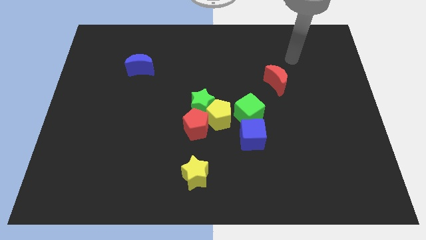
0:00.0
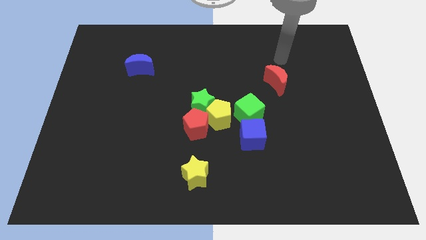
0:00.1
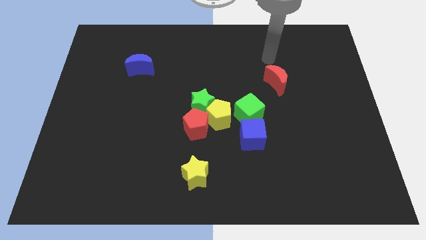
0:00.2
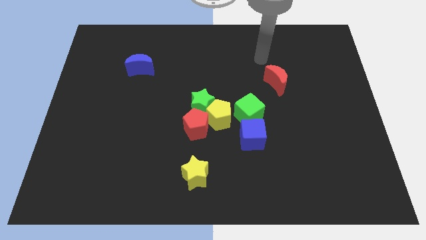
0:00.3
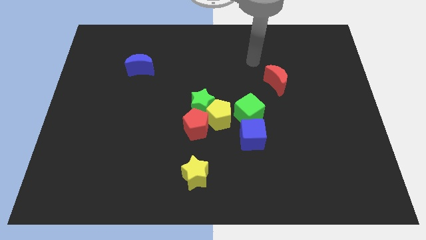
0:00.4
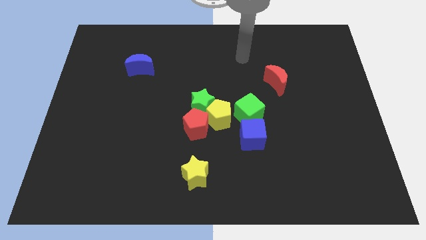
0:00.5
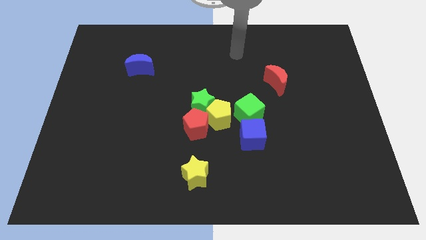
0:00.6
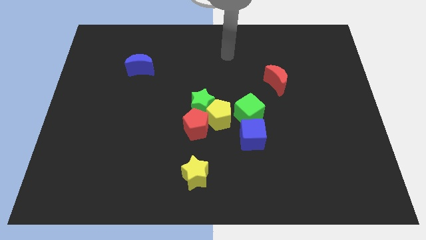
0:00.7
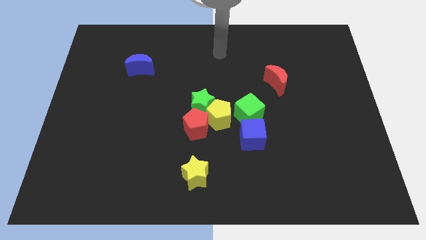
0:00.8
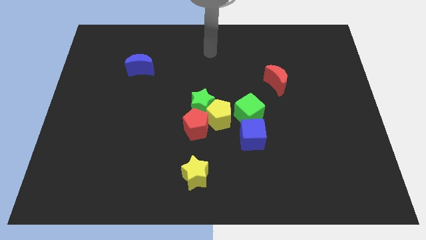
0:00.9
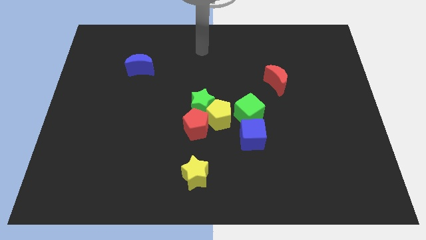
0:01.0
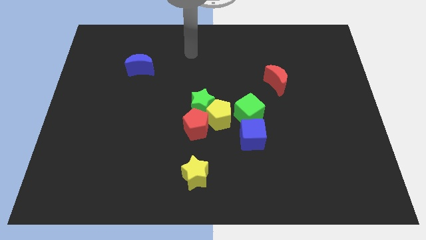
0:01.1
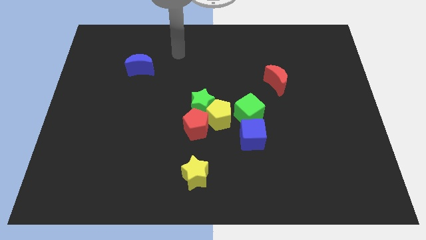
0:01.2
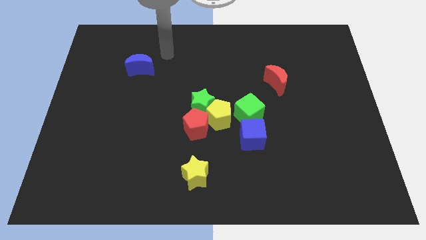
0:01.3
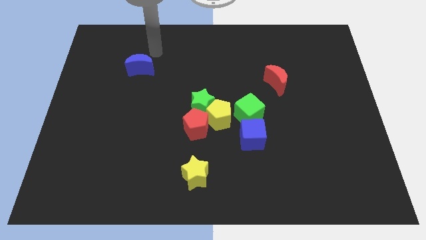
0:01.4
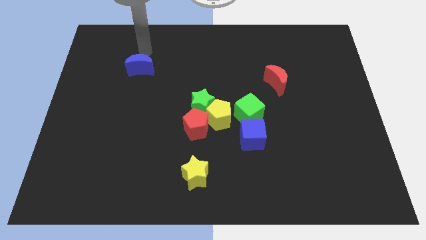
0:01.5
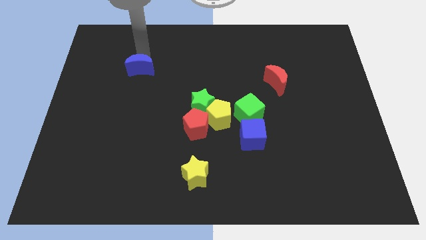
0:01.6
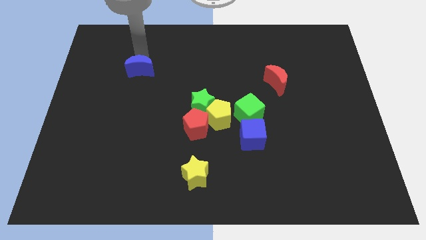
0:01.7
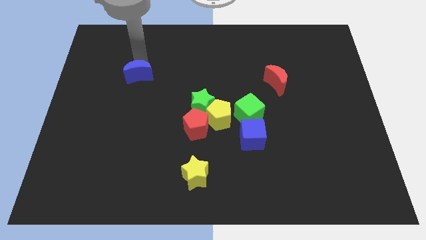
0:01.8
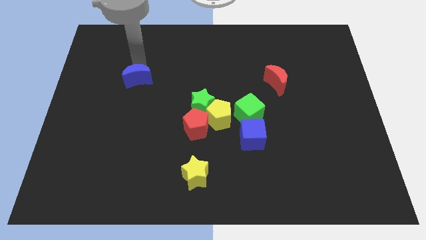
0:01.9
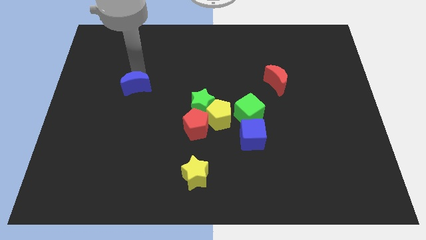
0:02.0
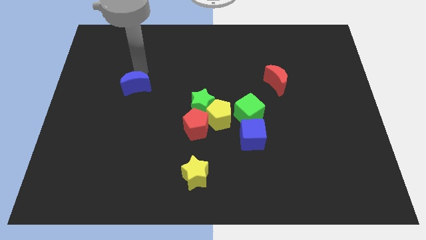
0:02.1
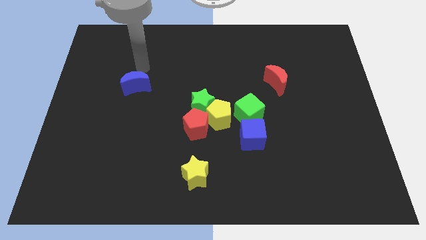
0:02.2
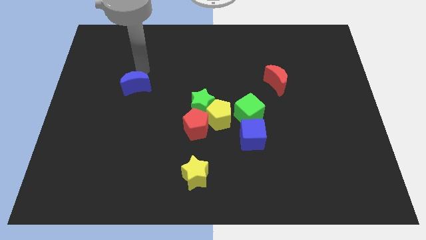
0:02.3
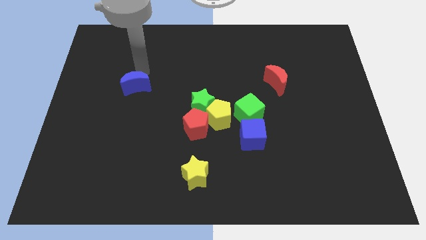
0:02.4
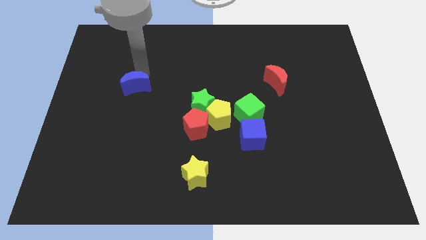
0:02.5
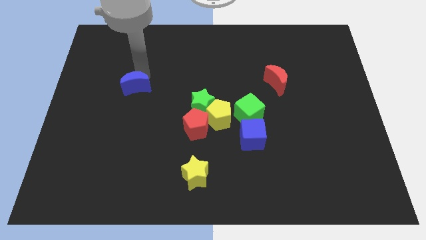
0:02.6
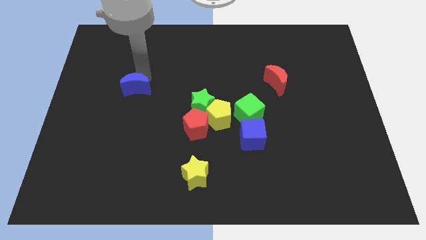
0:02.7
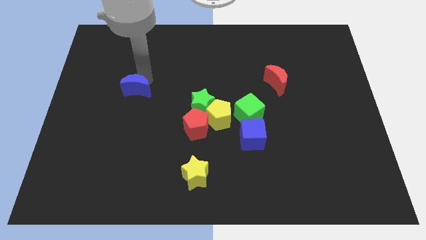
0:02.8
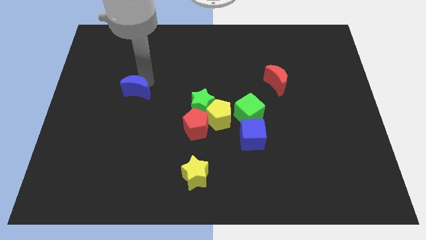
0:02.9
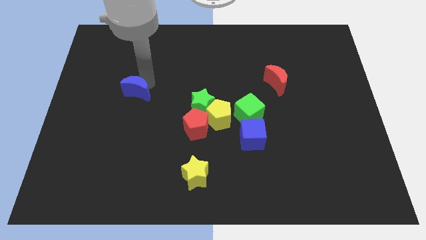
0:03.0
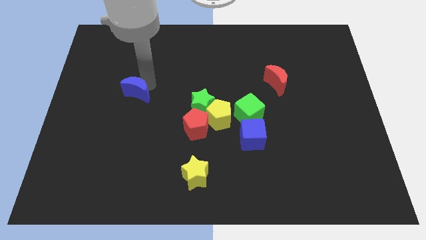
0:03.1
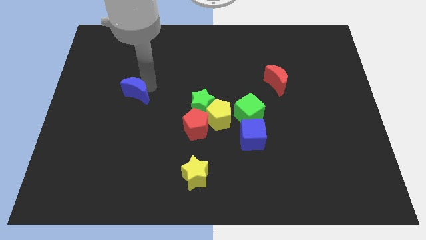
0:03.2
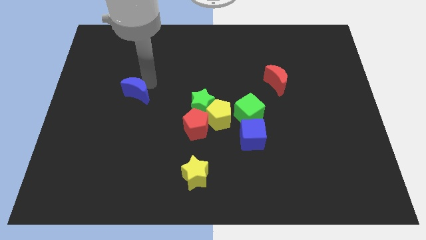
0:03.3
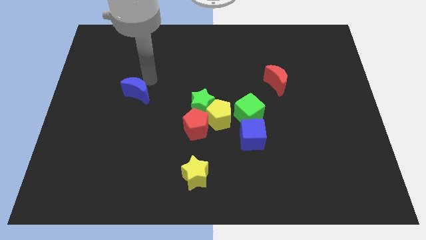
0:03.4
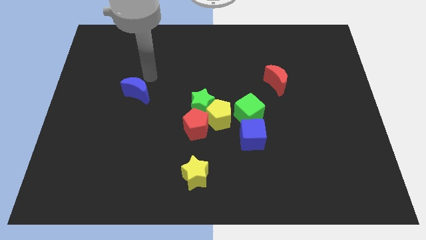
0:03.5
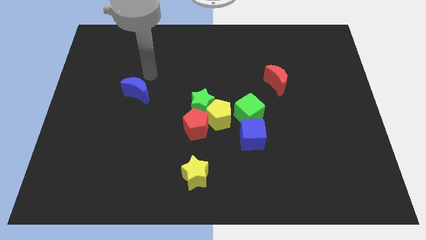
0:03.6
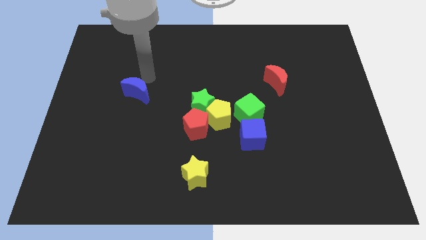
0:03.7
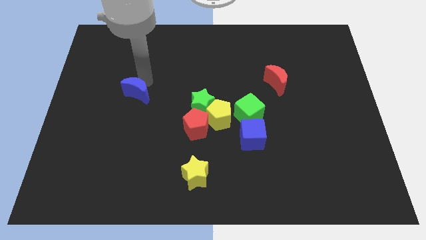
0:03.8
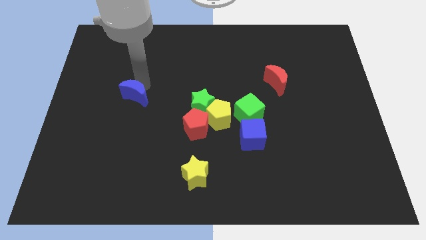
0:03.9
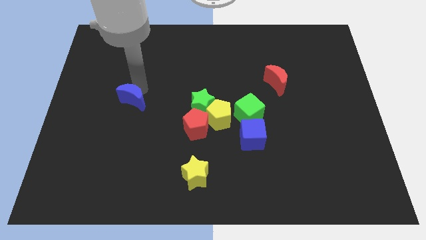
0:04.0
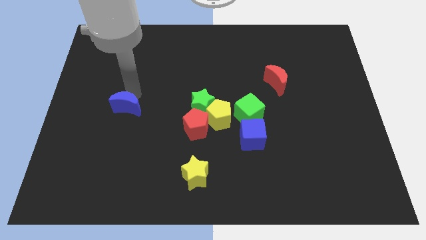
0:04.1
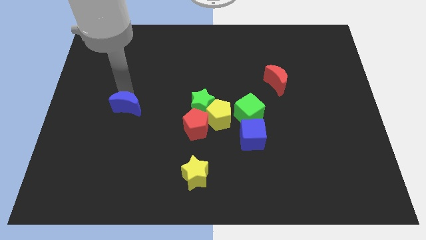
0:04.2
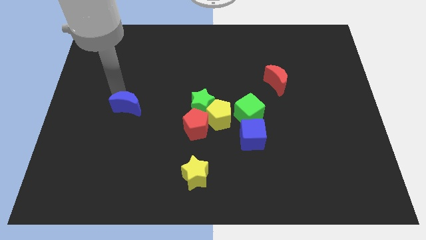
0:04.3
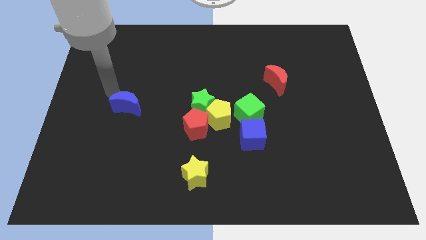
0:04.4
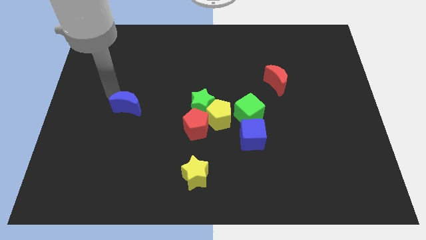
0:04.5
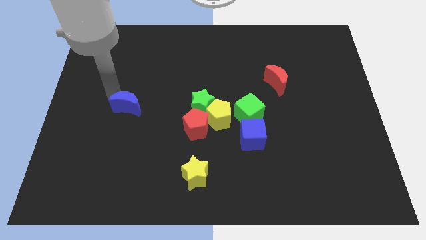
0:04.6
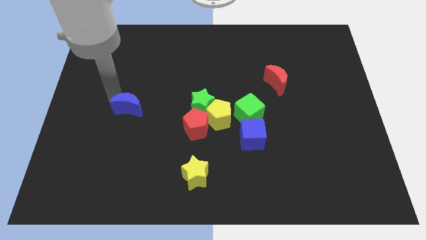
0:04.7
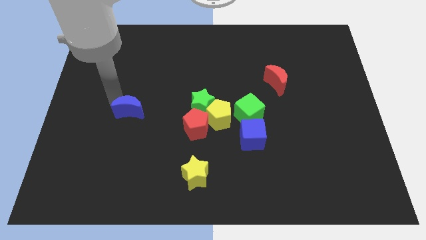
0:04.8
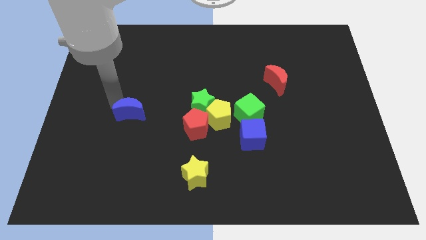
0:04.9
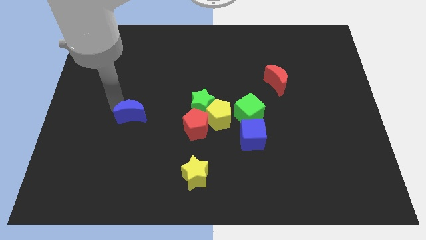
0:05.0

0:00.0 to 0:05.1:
push the blue moon to the left side of the red pentagon

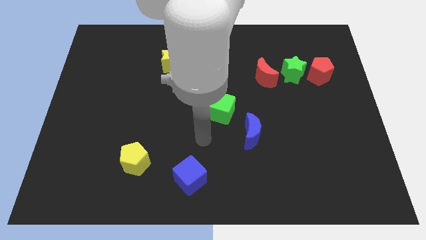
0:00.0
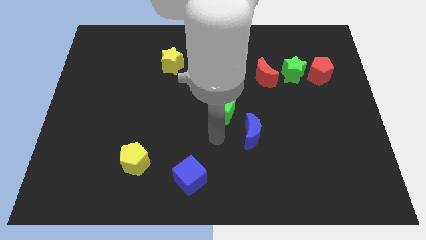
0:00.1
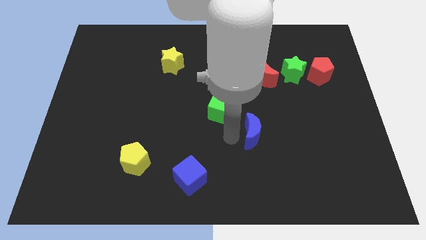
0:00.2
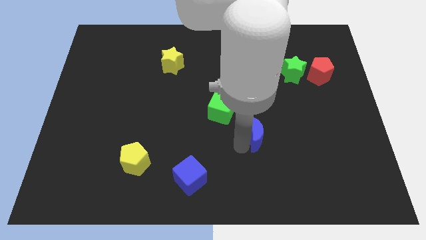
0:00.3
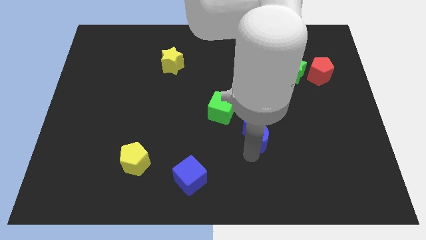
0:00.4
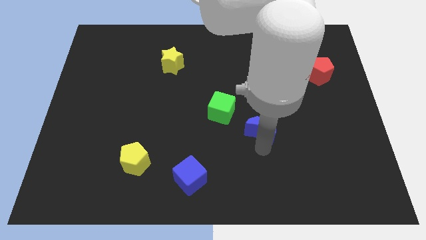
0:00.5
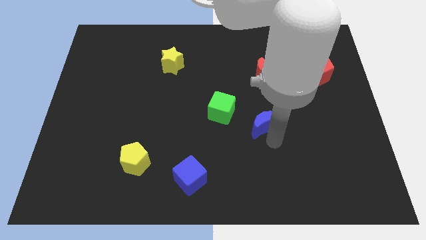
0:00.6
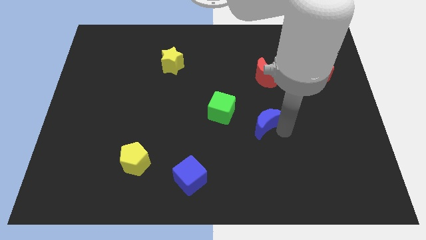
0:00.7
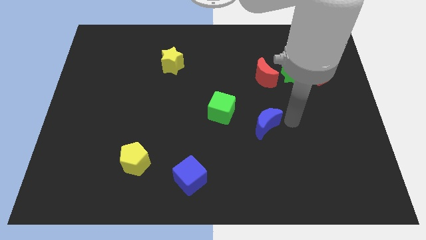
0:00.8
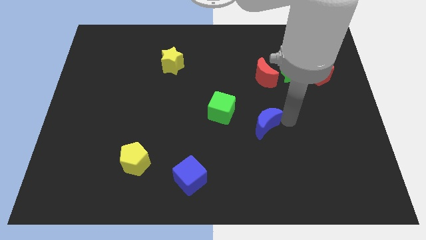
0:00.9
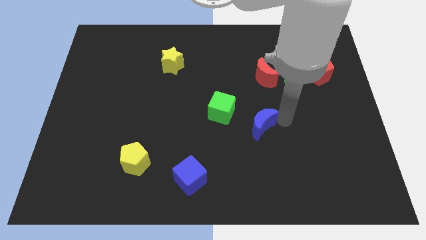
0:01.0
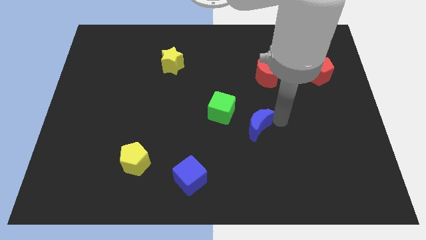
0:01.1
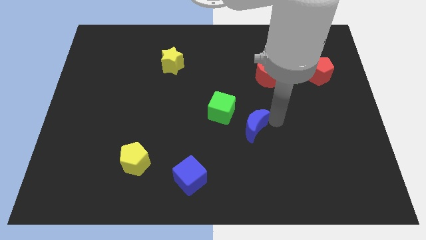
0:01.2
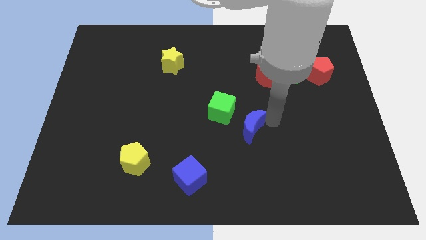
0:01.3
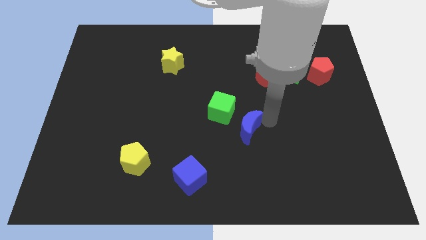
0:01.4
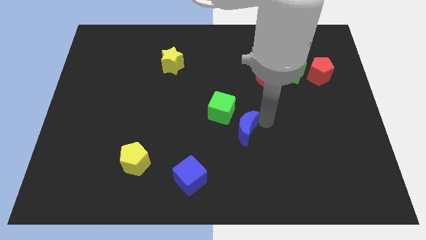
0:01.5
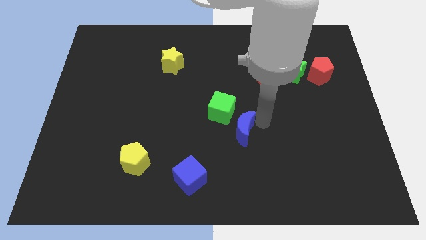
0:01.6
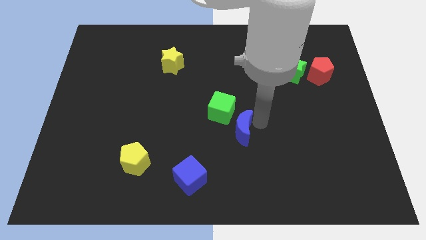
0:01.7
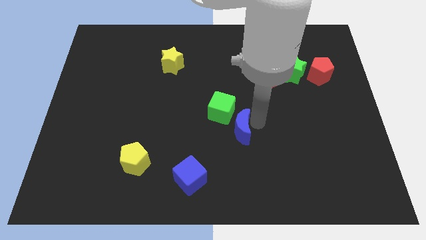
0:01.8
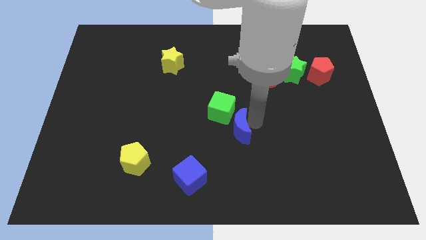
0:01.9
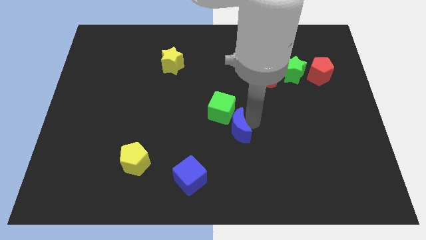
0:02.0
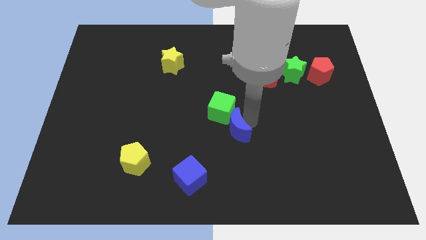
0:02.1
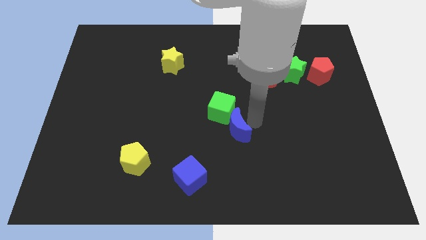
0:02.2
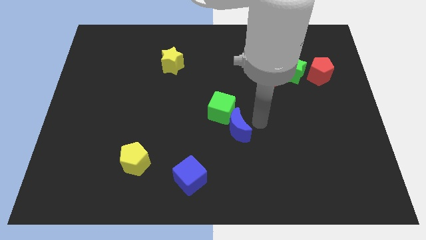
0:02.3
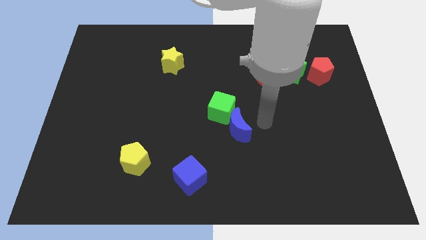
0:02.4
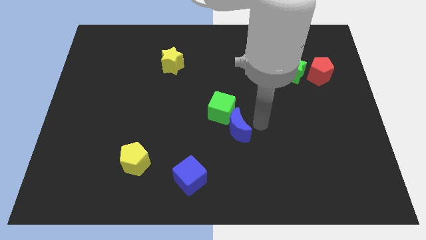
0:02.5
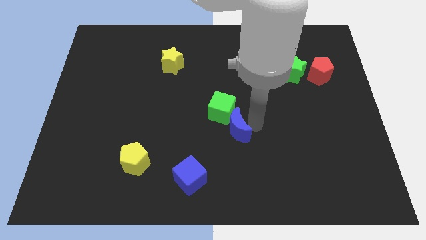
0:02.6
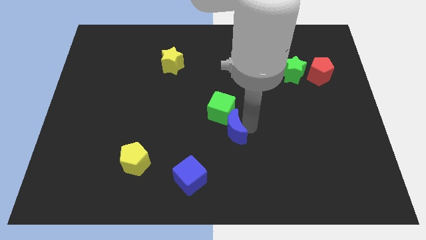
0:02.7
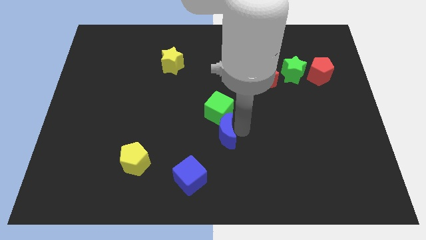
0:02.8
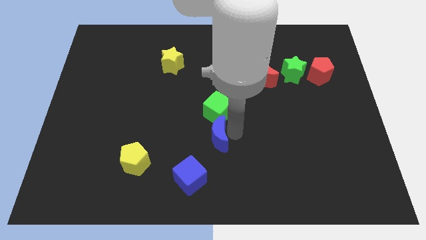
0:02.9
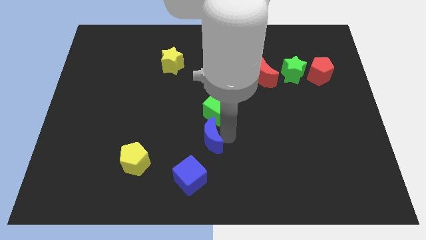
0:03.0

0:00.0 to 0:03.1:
push the blue moon to the top of the blue cube
